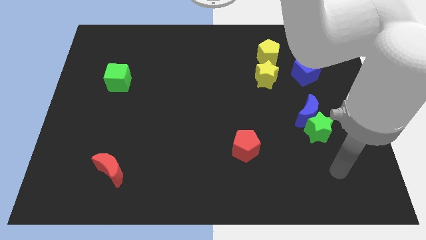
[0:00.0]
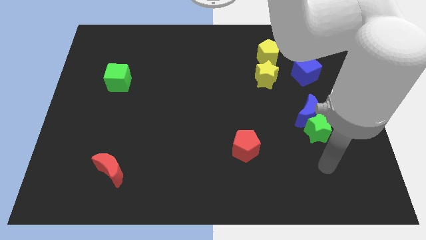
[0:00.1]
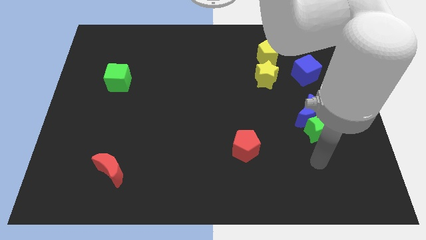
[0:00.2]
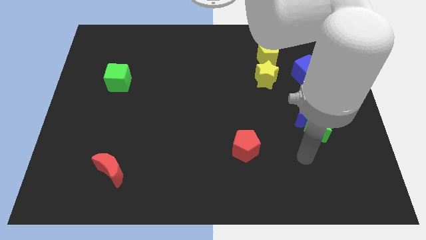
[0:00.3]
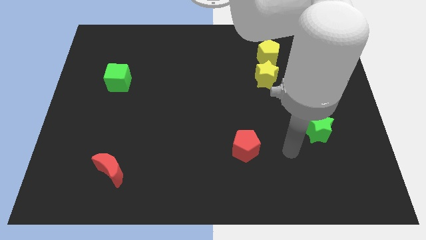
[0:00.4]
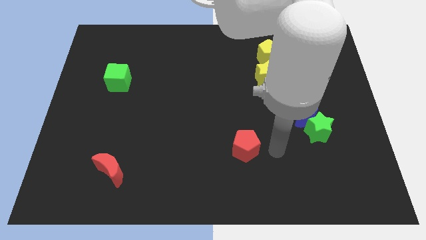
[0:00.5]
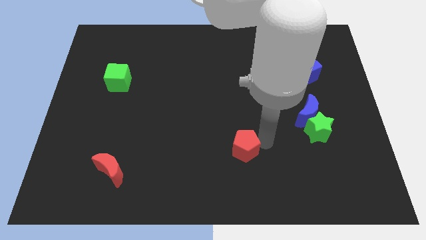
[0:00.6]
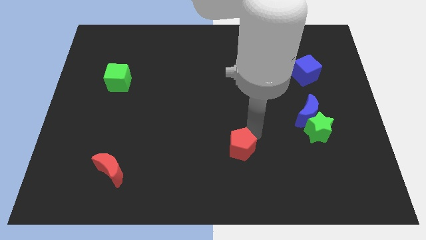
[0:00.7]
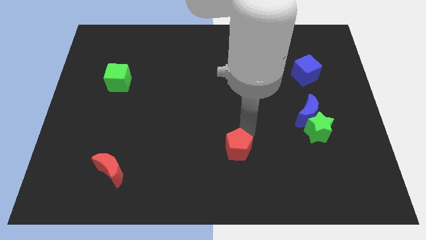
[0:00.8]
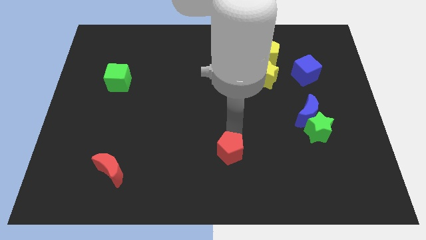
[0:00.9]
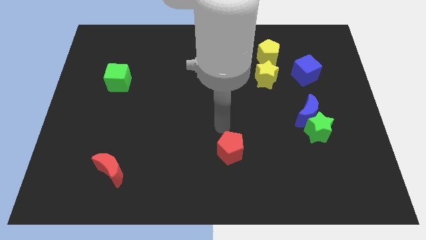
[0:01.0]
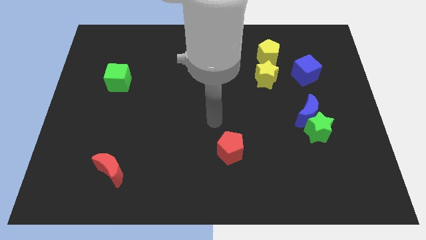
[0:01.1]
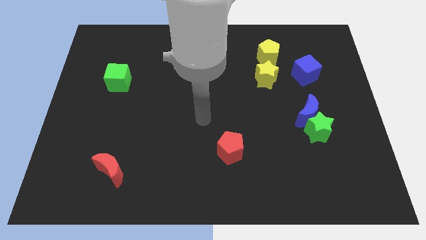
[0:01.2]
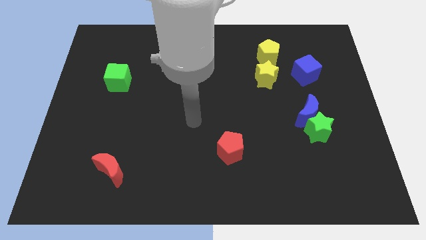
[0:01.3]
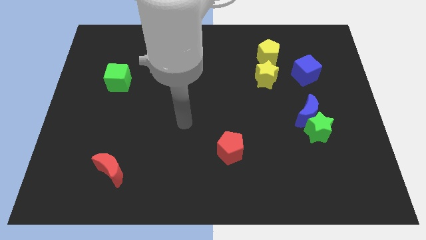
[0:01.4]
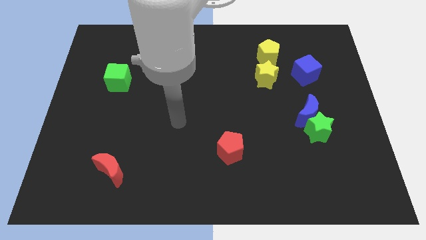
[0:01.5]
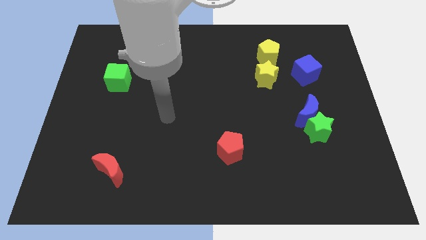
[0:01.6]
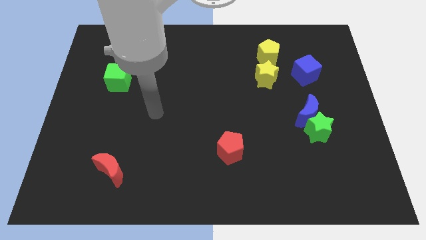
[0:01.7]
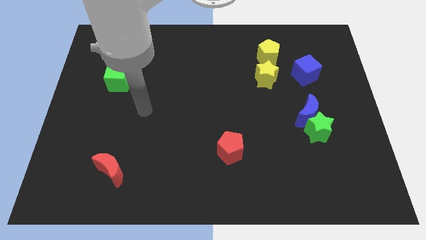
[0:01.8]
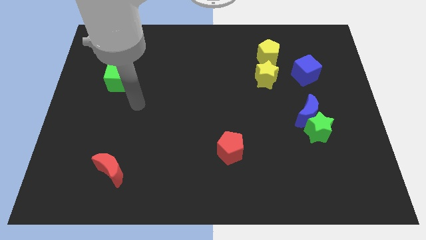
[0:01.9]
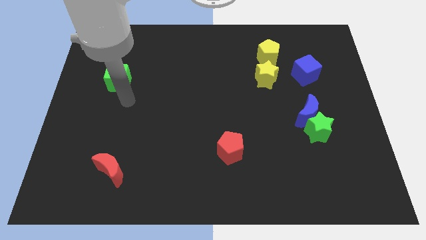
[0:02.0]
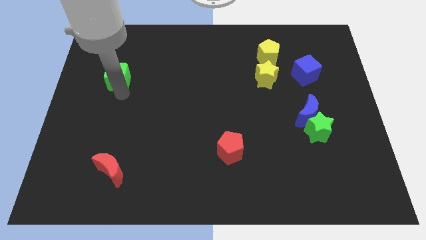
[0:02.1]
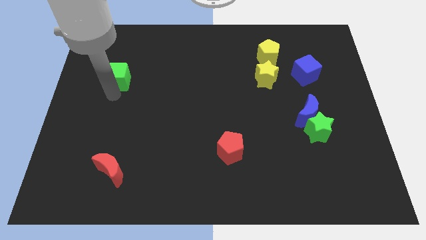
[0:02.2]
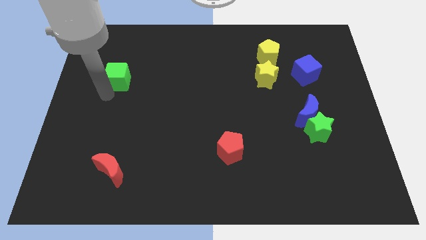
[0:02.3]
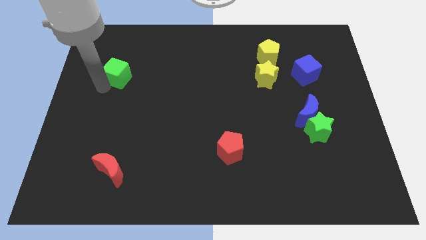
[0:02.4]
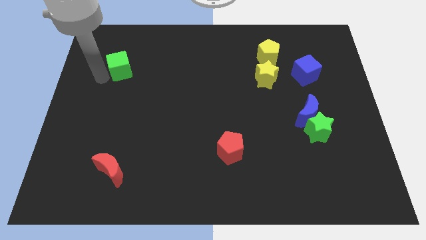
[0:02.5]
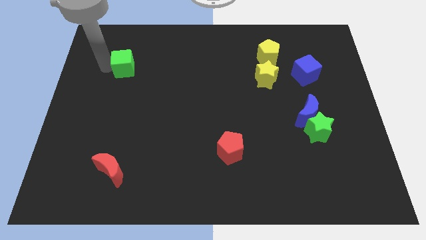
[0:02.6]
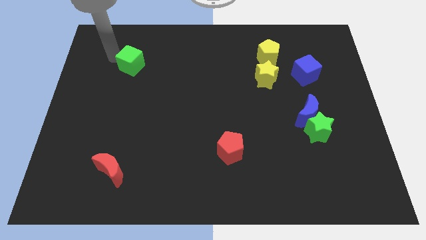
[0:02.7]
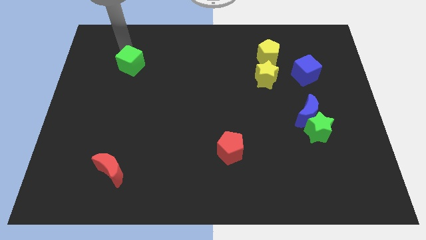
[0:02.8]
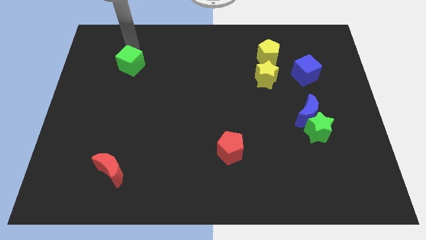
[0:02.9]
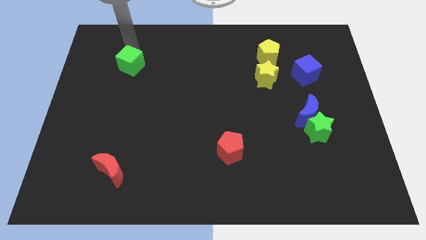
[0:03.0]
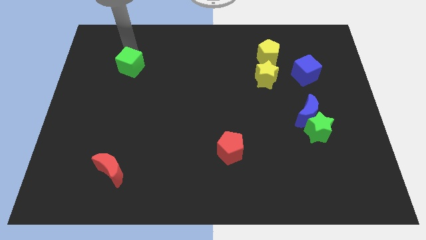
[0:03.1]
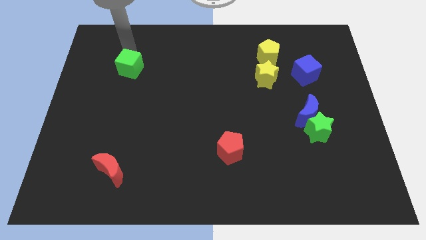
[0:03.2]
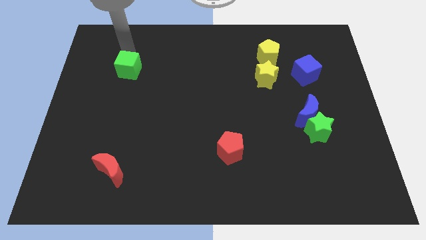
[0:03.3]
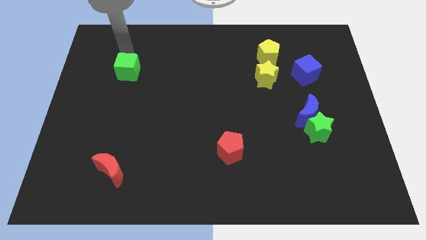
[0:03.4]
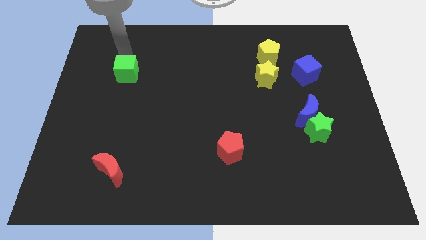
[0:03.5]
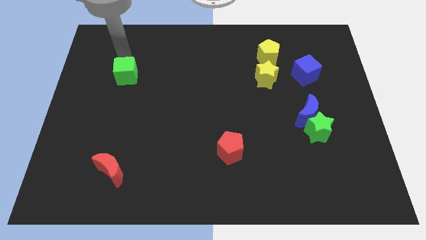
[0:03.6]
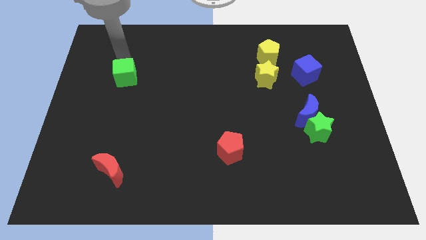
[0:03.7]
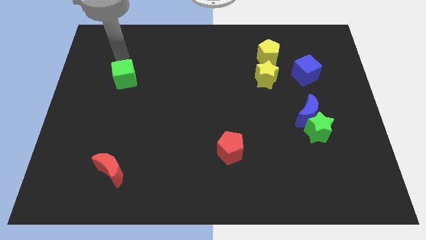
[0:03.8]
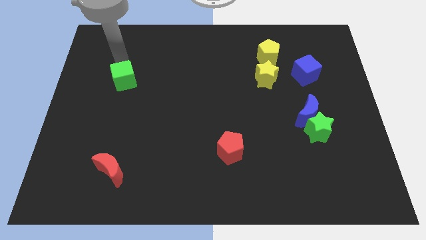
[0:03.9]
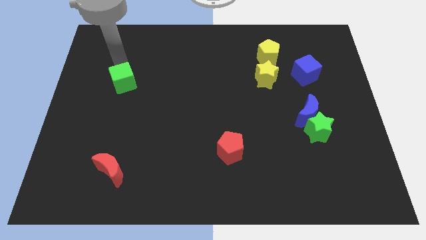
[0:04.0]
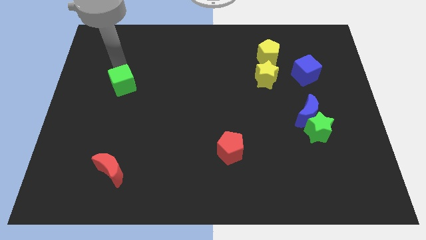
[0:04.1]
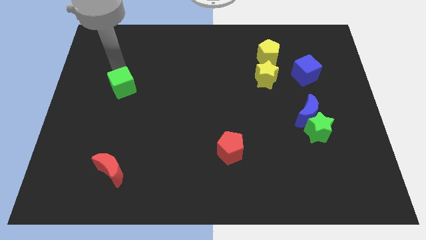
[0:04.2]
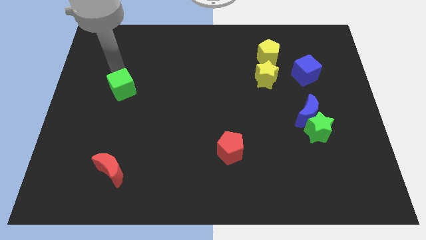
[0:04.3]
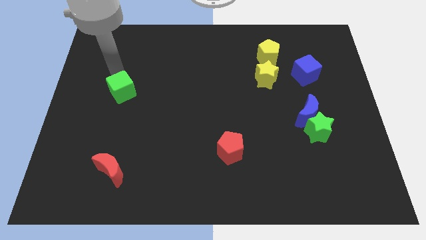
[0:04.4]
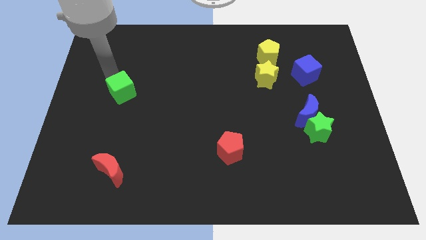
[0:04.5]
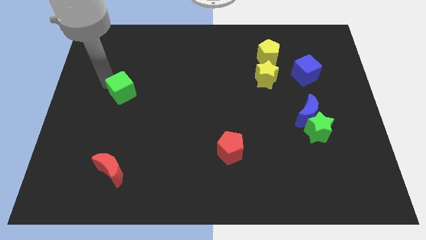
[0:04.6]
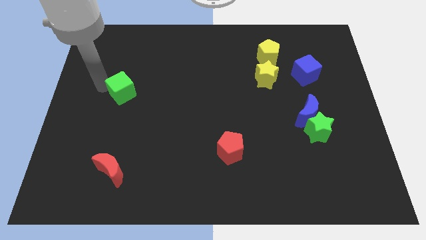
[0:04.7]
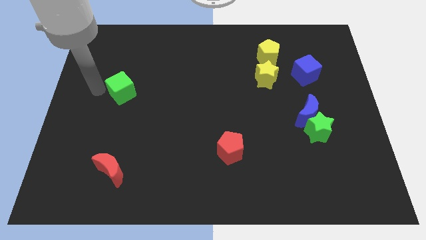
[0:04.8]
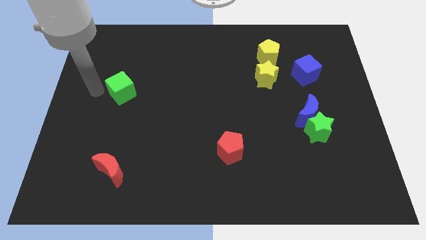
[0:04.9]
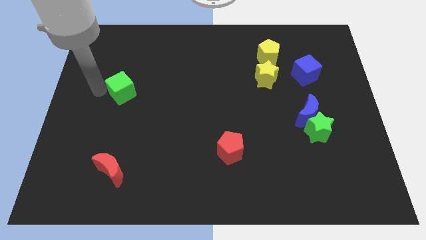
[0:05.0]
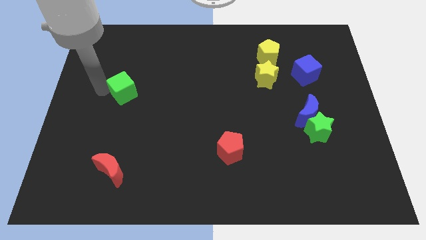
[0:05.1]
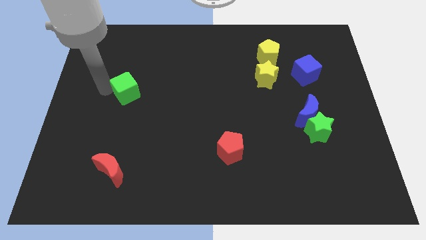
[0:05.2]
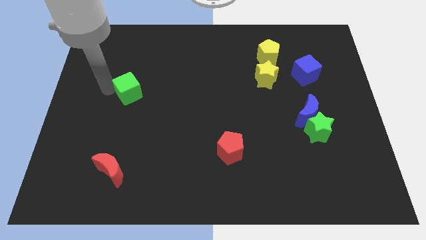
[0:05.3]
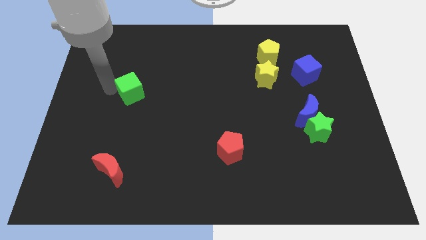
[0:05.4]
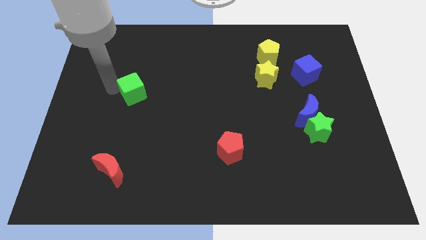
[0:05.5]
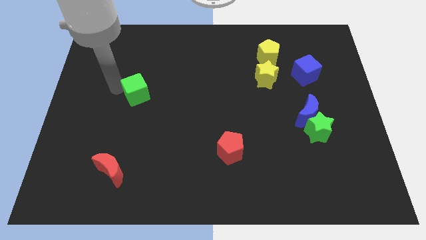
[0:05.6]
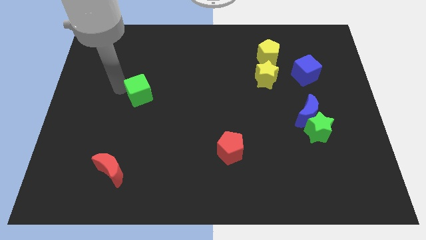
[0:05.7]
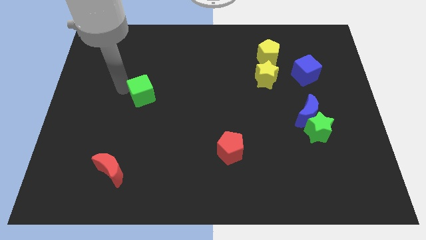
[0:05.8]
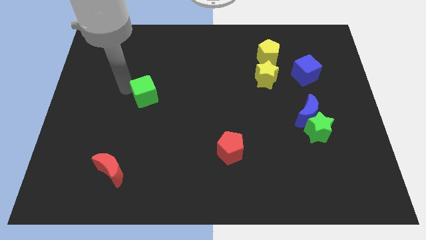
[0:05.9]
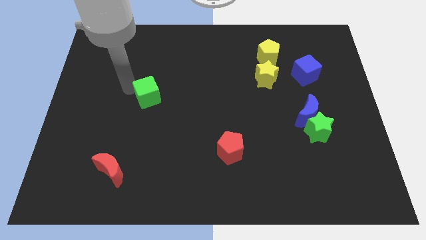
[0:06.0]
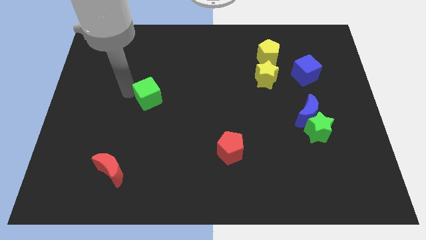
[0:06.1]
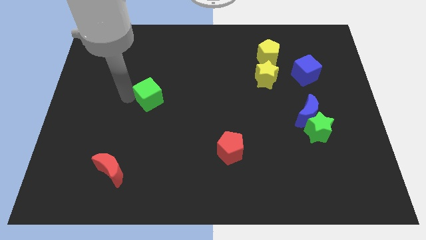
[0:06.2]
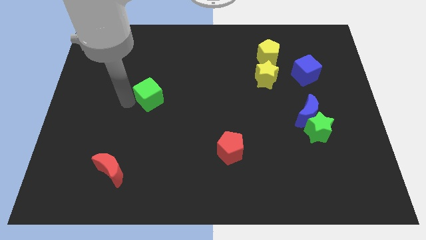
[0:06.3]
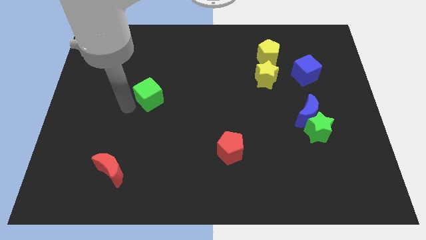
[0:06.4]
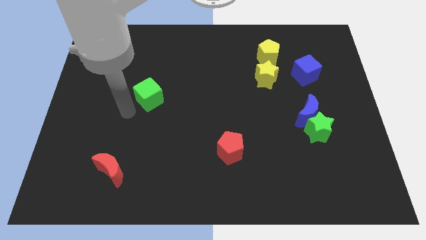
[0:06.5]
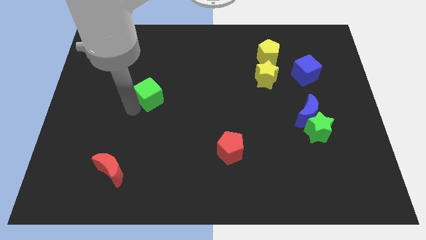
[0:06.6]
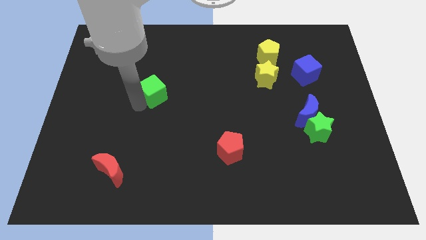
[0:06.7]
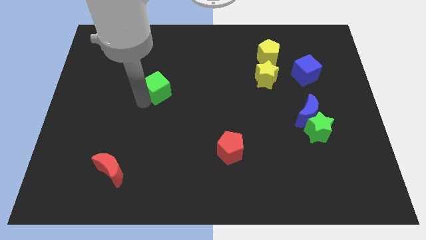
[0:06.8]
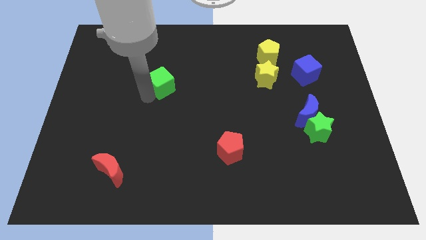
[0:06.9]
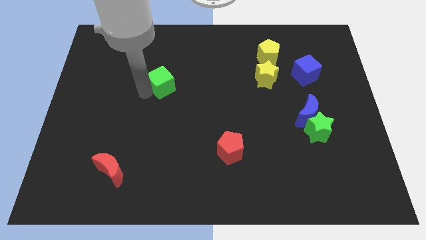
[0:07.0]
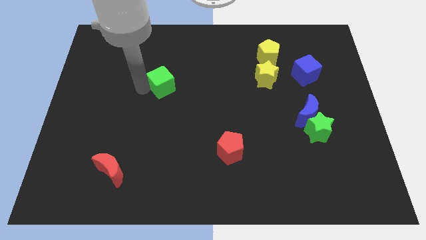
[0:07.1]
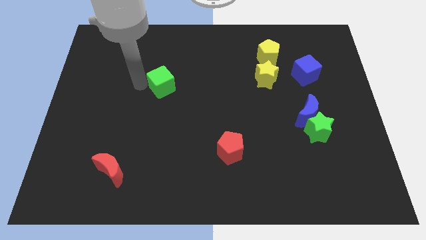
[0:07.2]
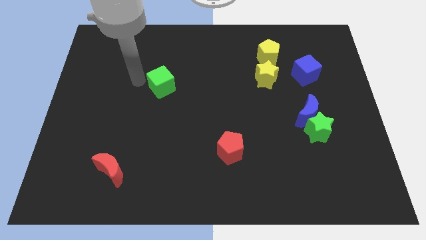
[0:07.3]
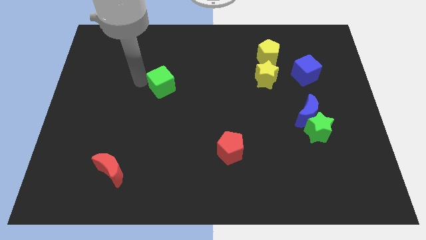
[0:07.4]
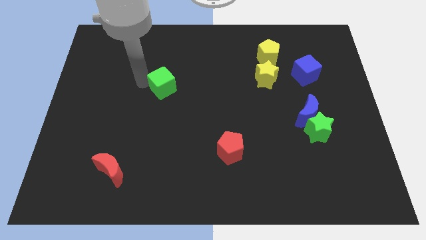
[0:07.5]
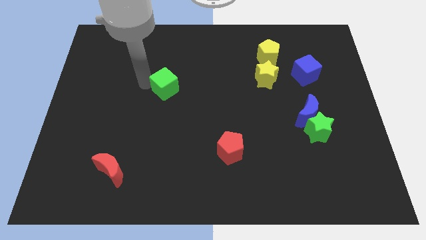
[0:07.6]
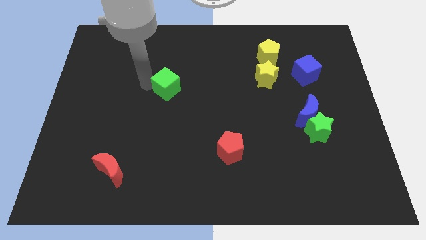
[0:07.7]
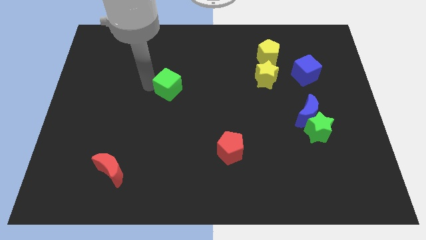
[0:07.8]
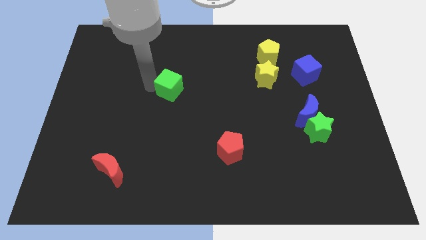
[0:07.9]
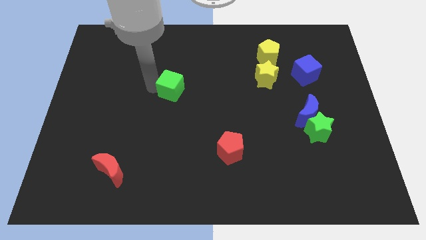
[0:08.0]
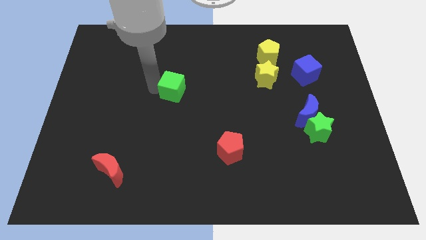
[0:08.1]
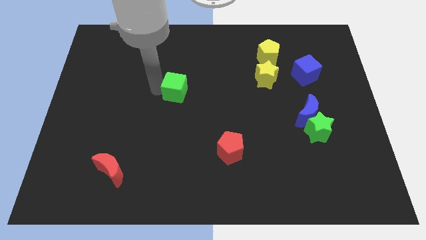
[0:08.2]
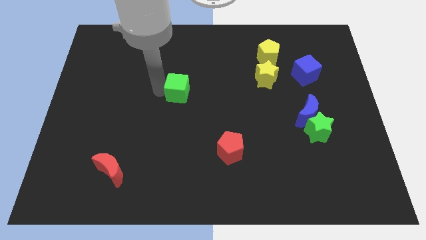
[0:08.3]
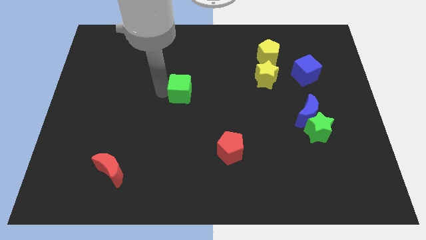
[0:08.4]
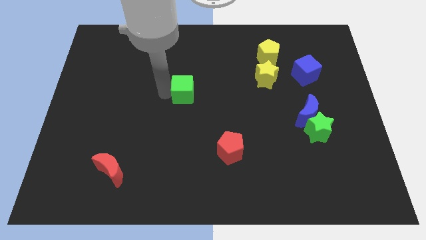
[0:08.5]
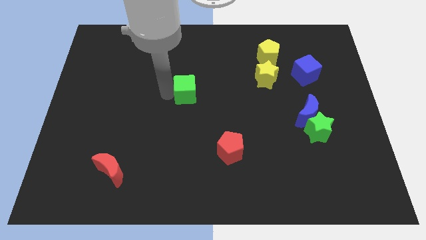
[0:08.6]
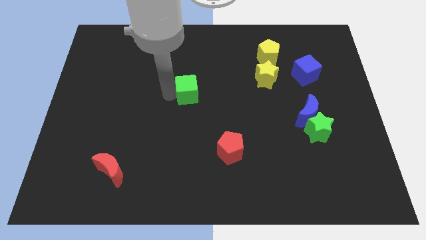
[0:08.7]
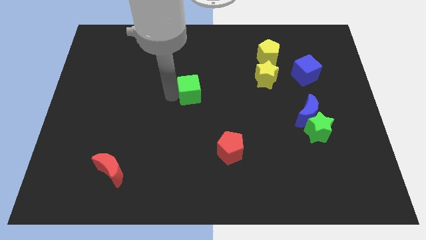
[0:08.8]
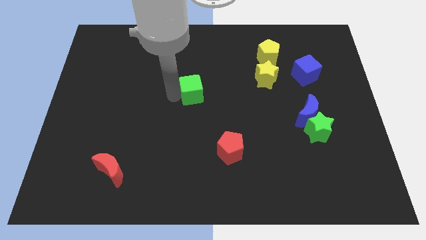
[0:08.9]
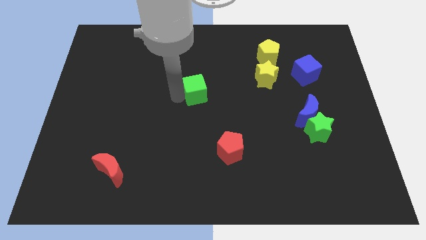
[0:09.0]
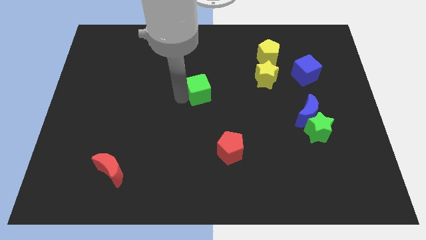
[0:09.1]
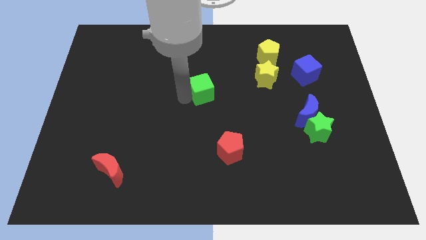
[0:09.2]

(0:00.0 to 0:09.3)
push the green cube right
